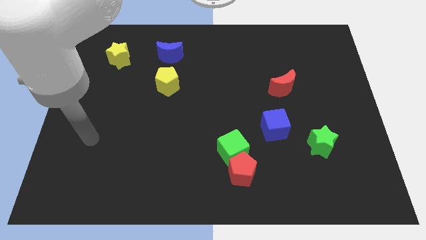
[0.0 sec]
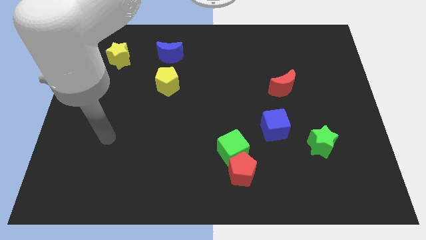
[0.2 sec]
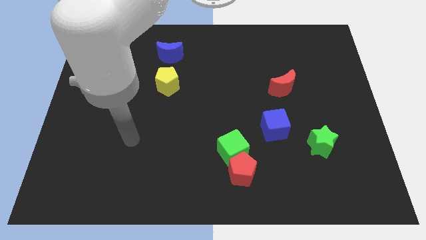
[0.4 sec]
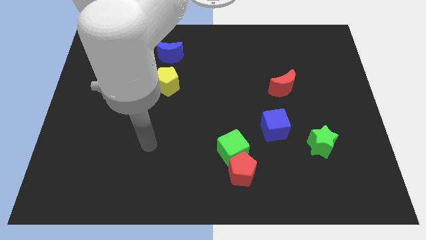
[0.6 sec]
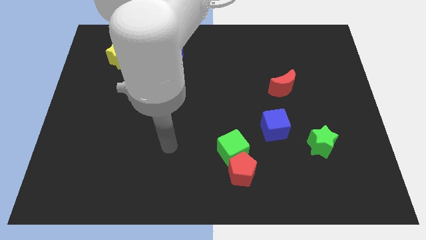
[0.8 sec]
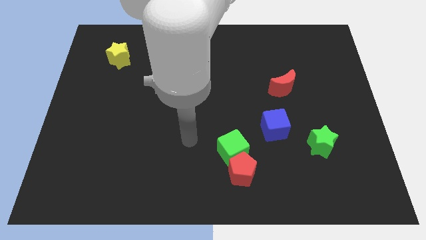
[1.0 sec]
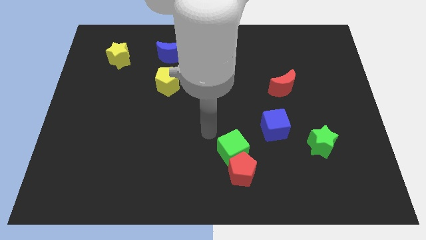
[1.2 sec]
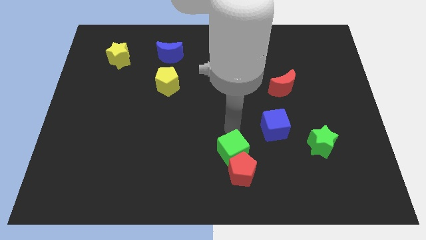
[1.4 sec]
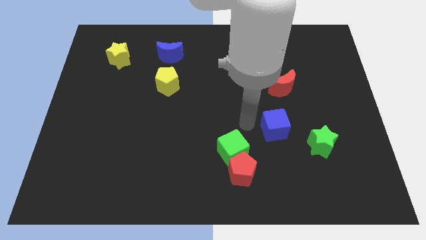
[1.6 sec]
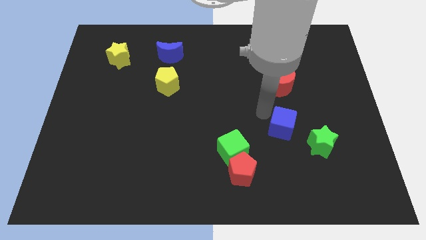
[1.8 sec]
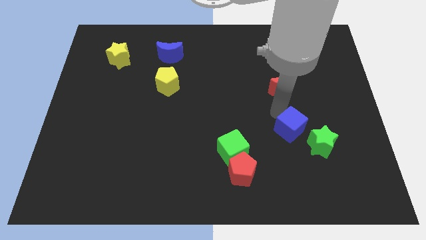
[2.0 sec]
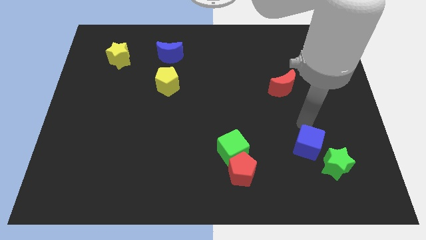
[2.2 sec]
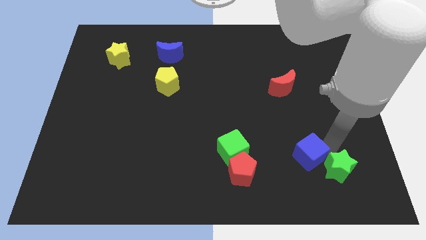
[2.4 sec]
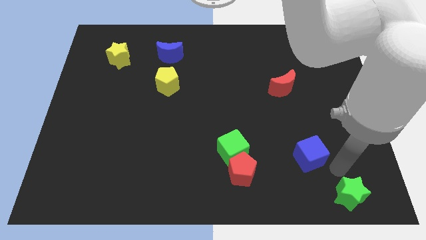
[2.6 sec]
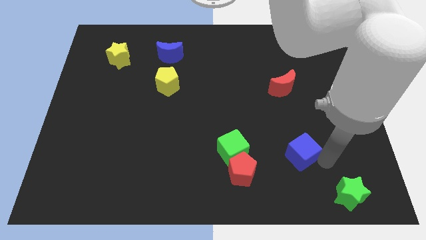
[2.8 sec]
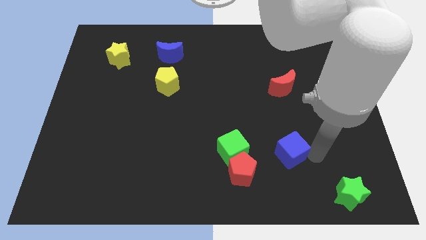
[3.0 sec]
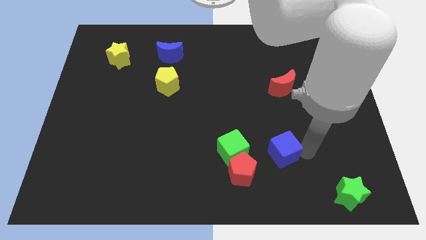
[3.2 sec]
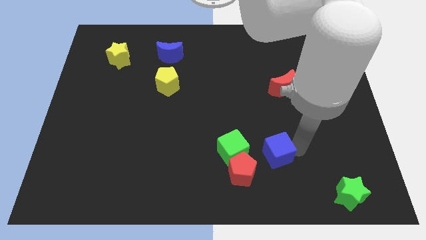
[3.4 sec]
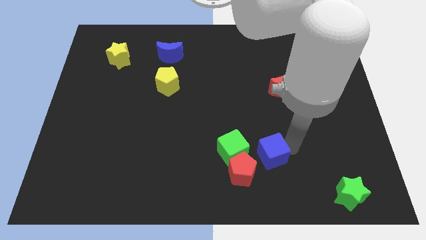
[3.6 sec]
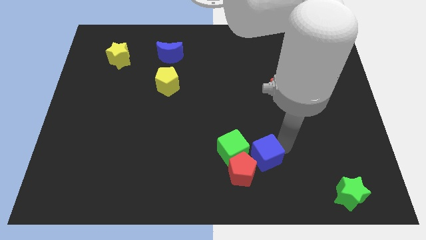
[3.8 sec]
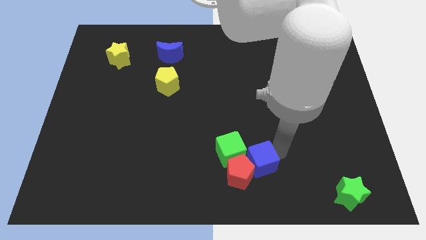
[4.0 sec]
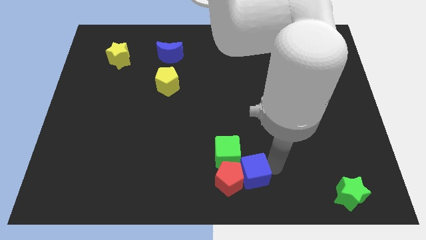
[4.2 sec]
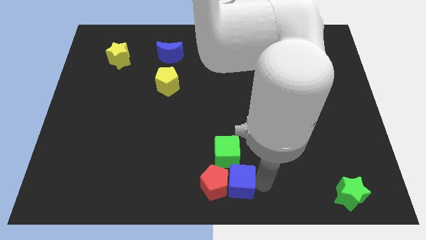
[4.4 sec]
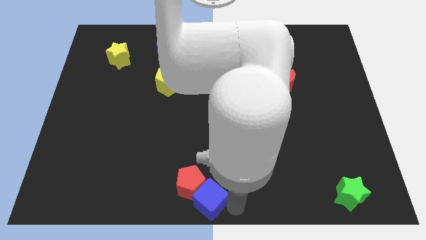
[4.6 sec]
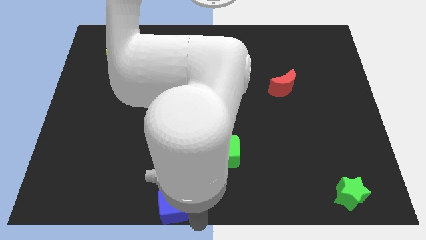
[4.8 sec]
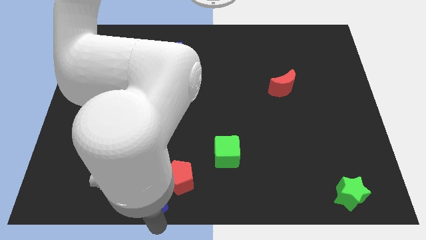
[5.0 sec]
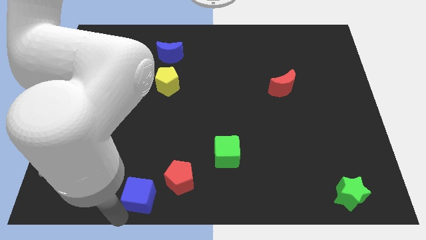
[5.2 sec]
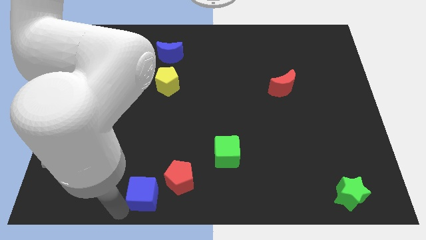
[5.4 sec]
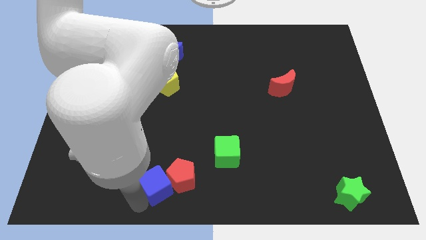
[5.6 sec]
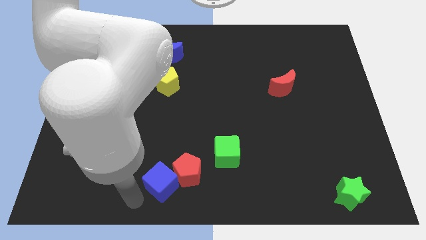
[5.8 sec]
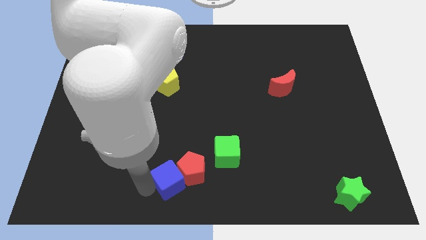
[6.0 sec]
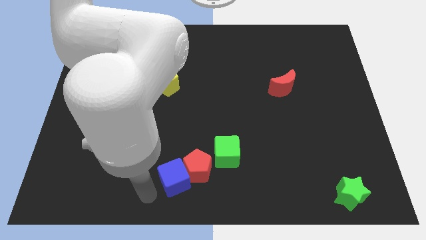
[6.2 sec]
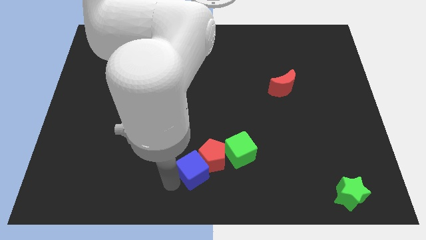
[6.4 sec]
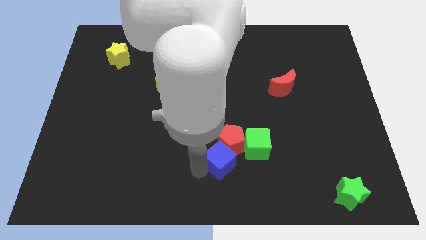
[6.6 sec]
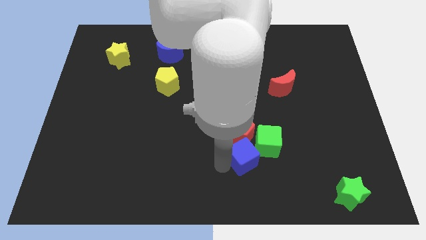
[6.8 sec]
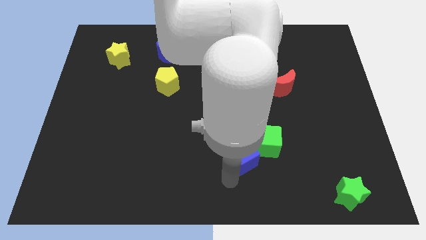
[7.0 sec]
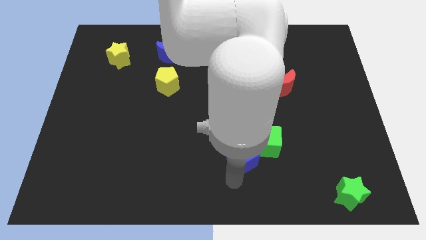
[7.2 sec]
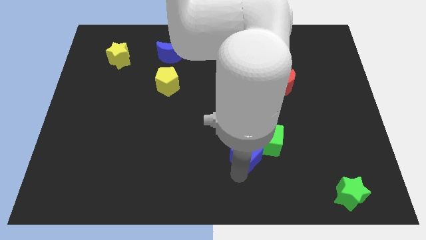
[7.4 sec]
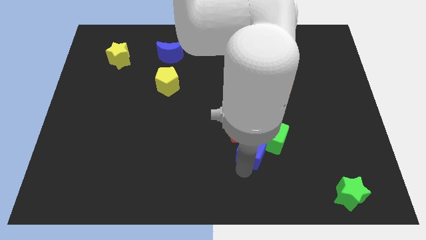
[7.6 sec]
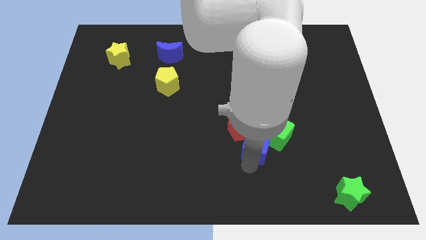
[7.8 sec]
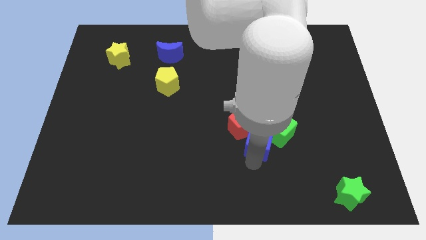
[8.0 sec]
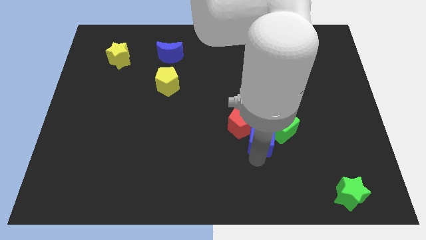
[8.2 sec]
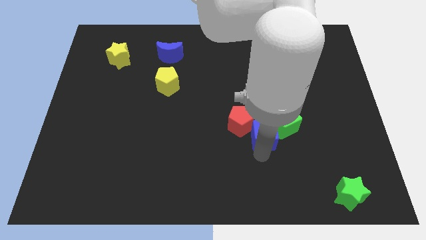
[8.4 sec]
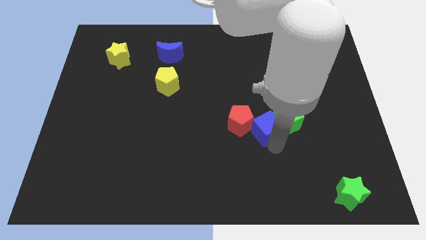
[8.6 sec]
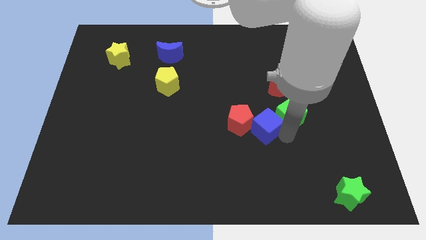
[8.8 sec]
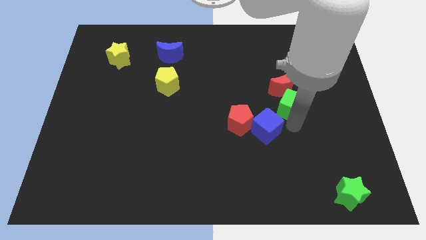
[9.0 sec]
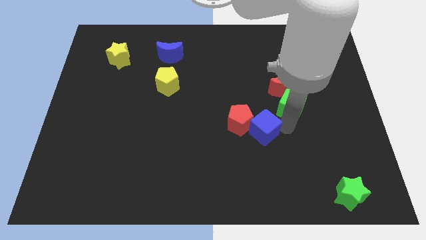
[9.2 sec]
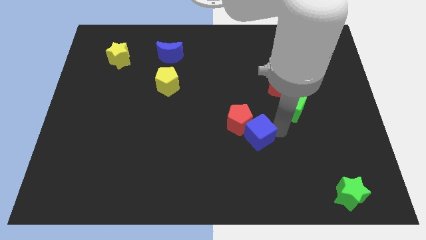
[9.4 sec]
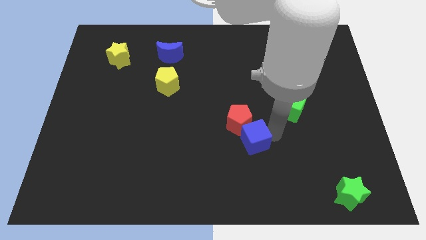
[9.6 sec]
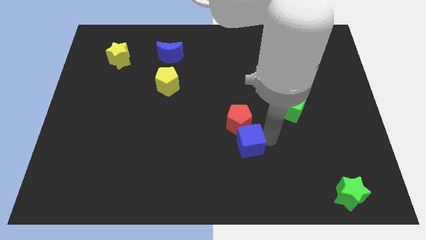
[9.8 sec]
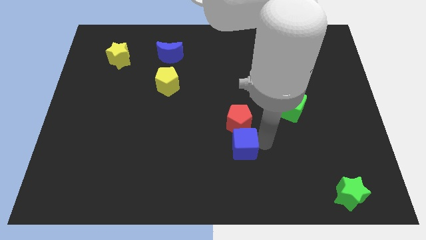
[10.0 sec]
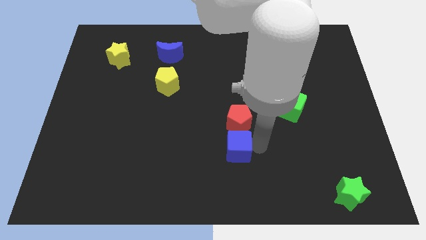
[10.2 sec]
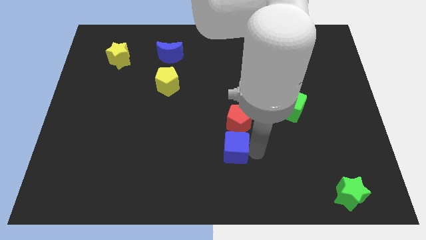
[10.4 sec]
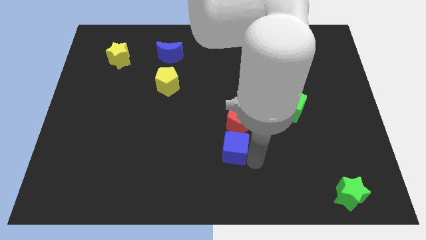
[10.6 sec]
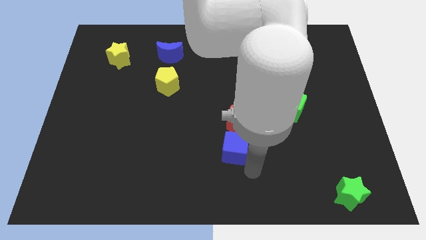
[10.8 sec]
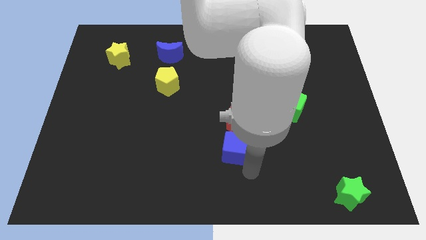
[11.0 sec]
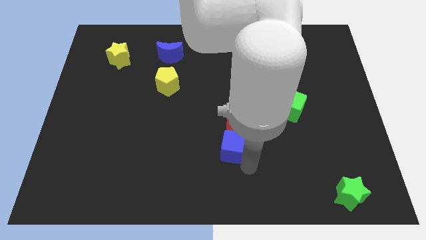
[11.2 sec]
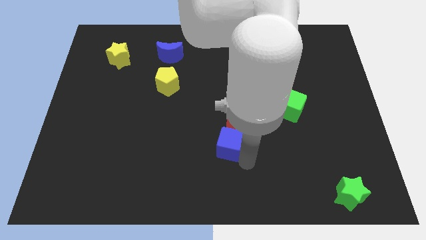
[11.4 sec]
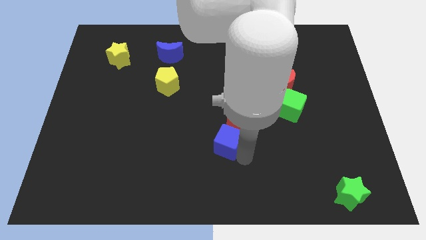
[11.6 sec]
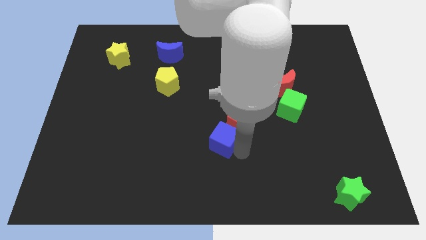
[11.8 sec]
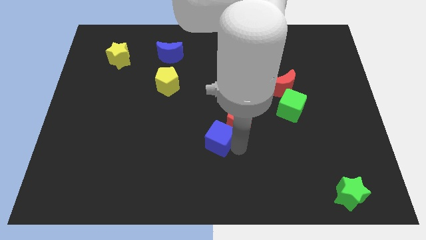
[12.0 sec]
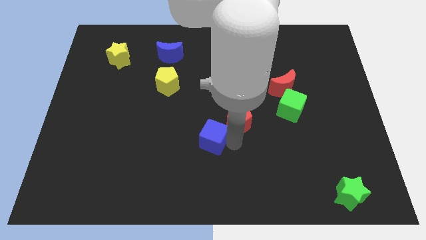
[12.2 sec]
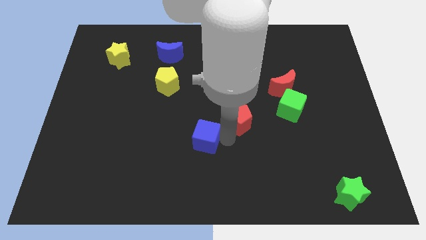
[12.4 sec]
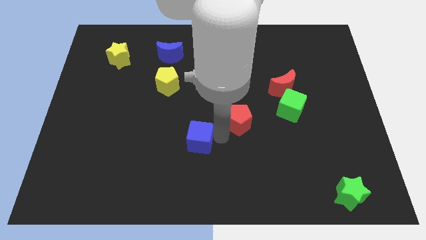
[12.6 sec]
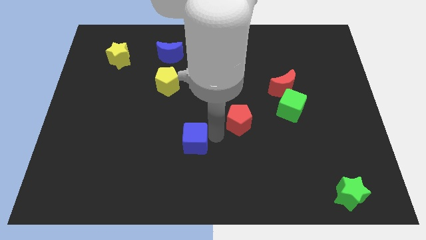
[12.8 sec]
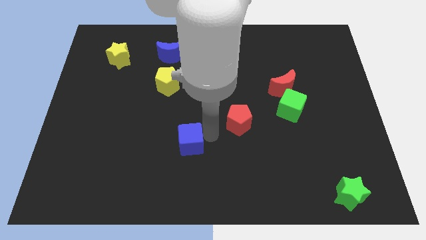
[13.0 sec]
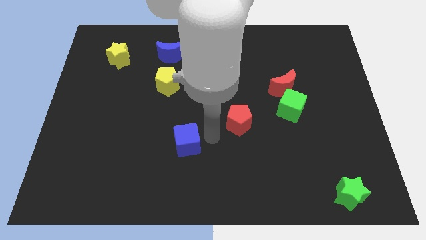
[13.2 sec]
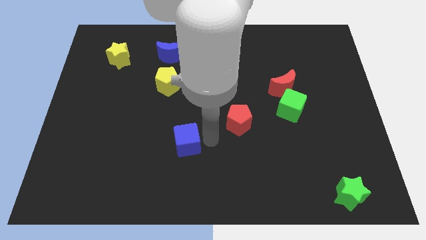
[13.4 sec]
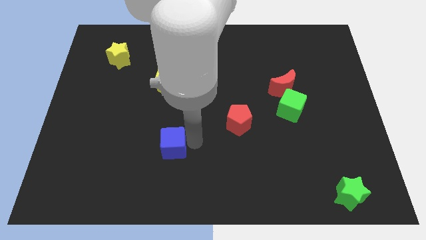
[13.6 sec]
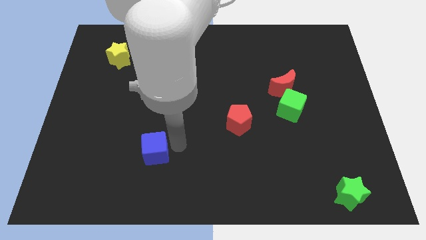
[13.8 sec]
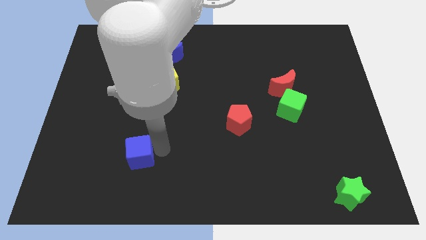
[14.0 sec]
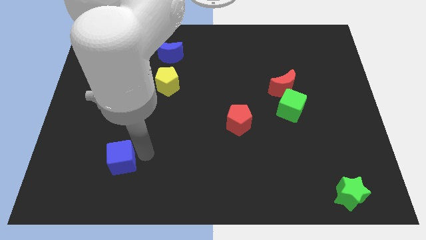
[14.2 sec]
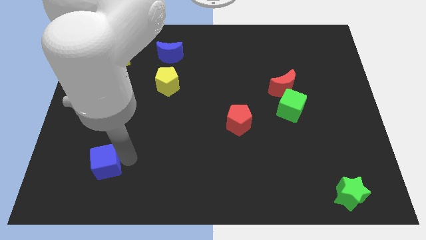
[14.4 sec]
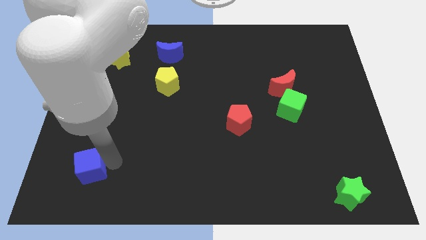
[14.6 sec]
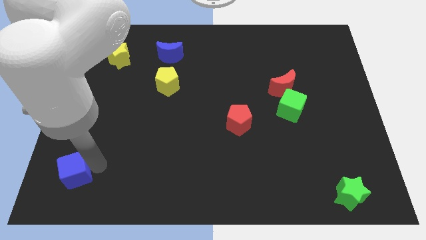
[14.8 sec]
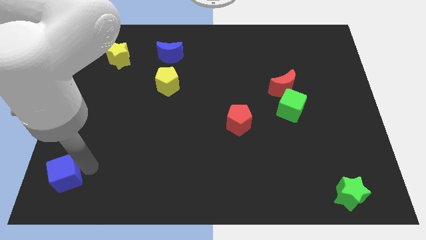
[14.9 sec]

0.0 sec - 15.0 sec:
move the blue cube to the bottom left
